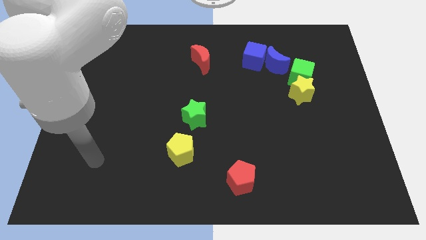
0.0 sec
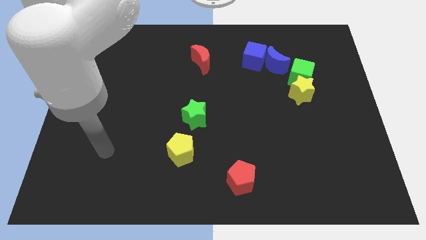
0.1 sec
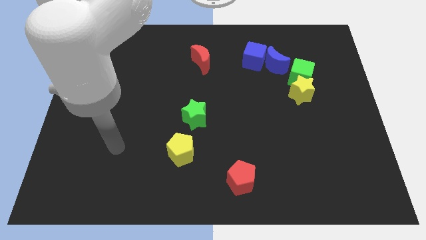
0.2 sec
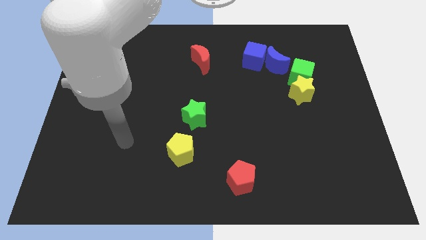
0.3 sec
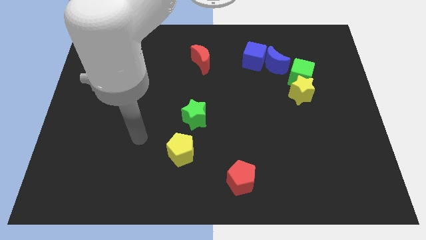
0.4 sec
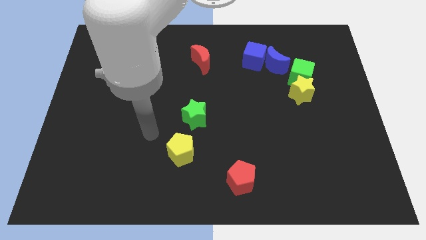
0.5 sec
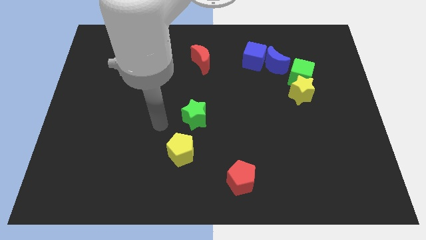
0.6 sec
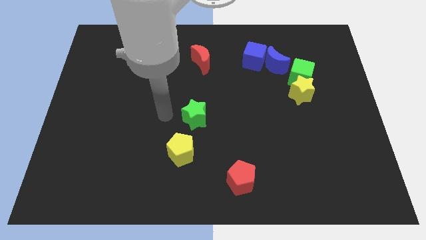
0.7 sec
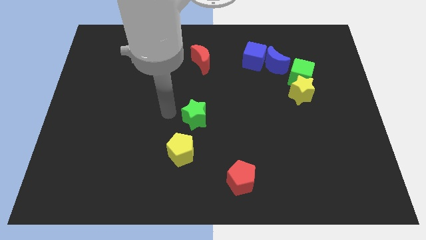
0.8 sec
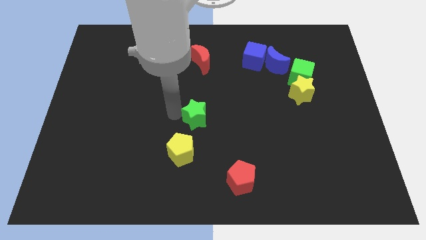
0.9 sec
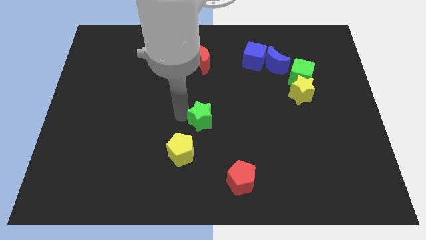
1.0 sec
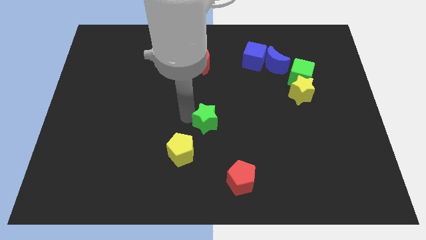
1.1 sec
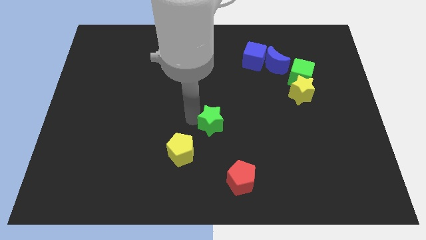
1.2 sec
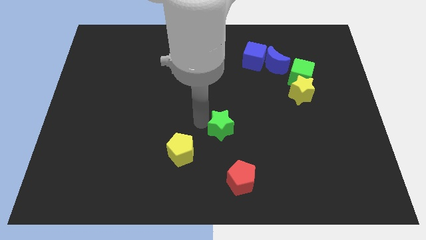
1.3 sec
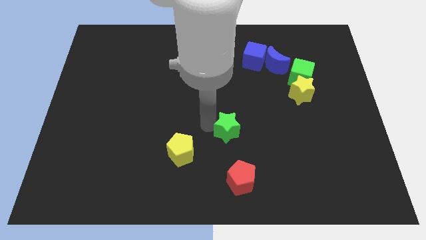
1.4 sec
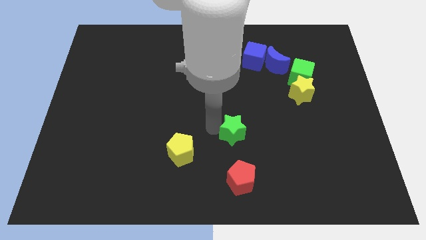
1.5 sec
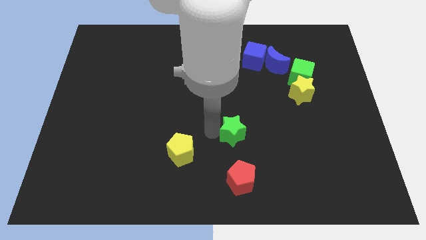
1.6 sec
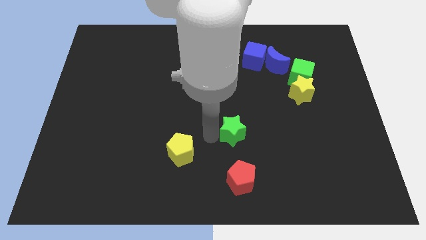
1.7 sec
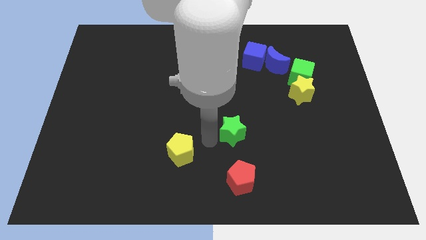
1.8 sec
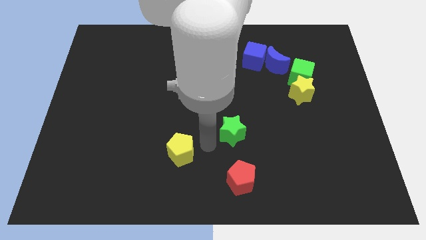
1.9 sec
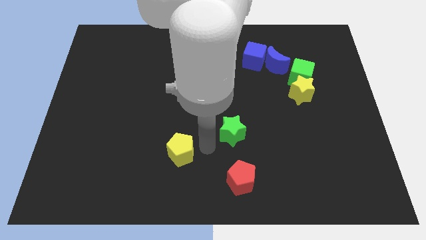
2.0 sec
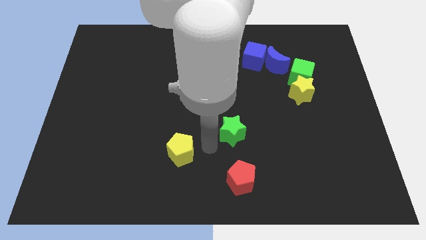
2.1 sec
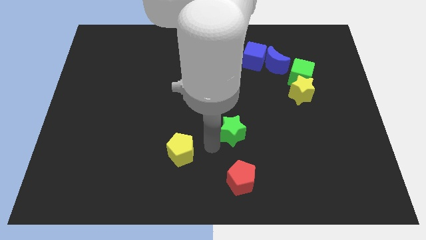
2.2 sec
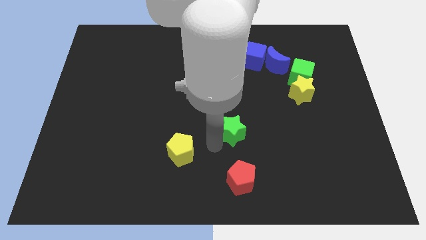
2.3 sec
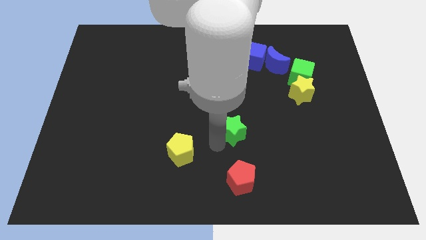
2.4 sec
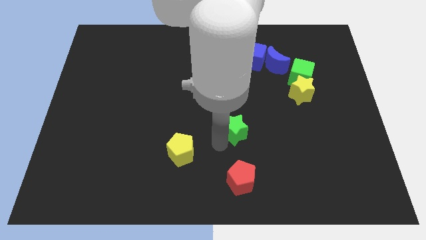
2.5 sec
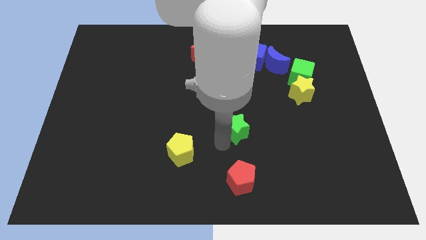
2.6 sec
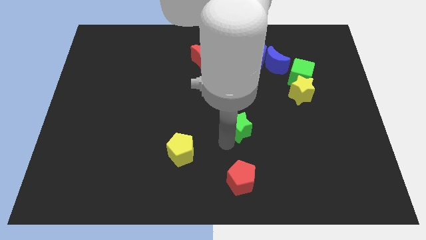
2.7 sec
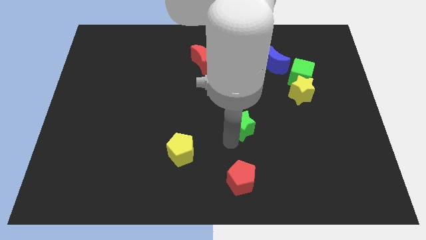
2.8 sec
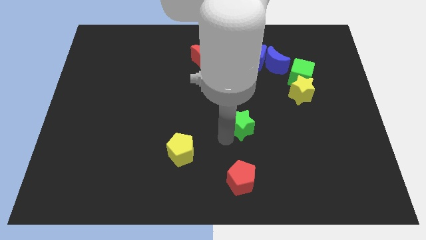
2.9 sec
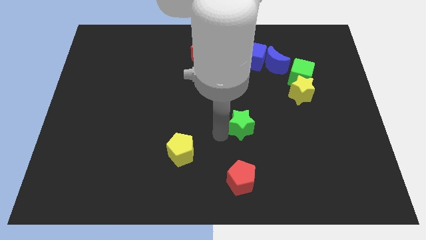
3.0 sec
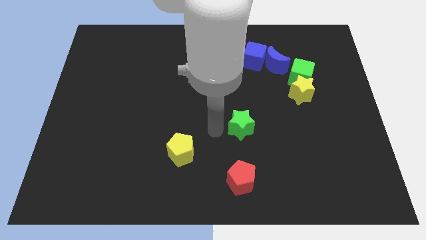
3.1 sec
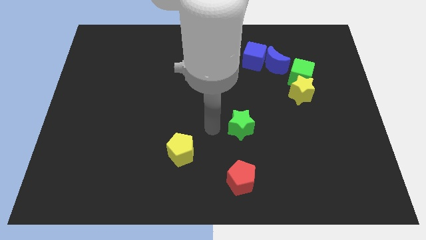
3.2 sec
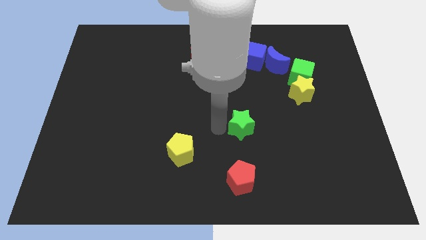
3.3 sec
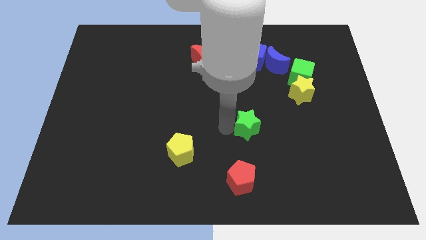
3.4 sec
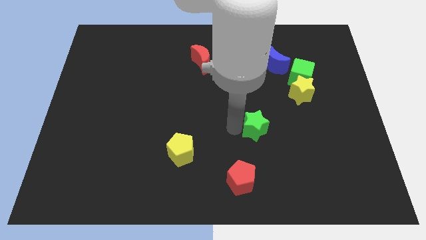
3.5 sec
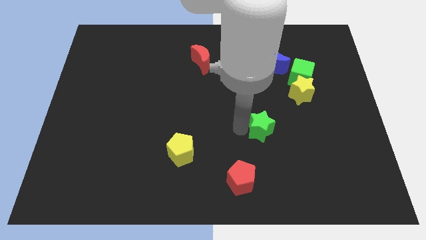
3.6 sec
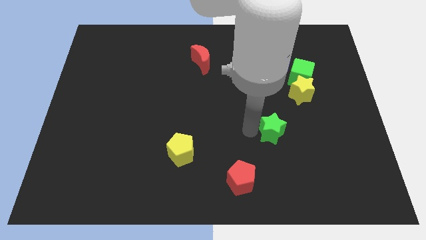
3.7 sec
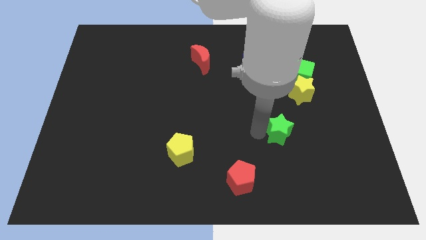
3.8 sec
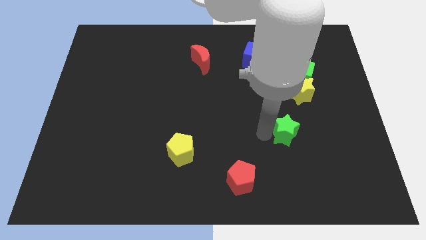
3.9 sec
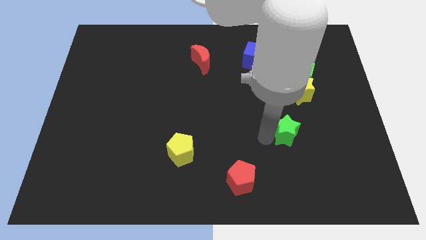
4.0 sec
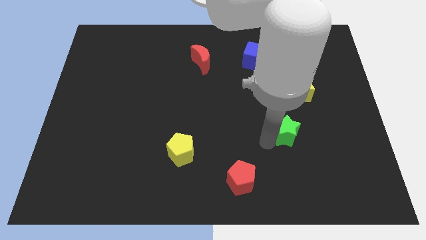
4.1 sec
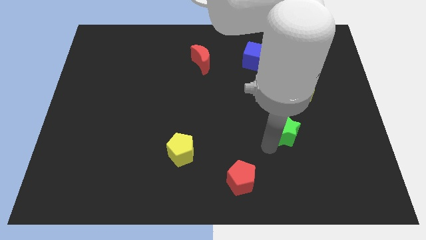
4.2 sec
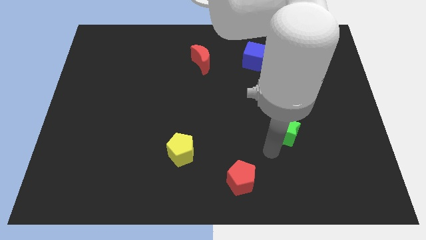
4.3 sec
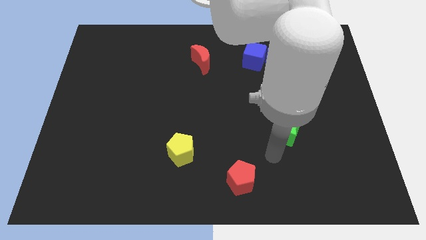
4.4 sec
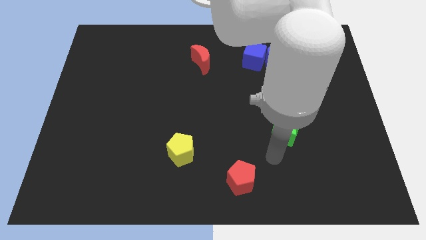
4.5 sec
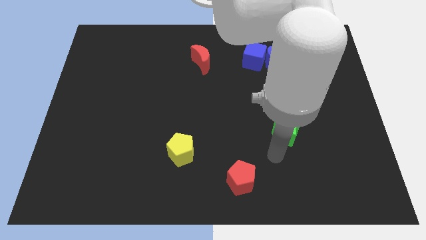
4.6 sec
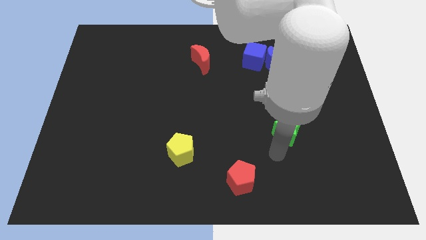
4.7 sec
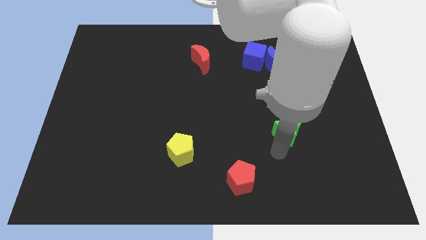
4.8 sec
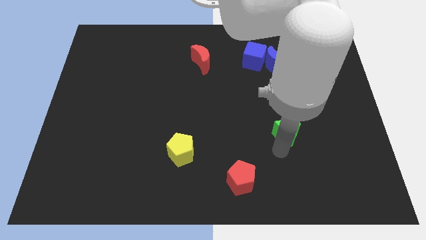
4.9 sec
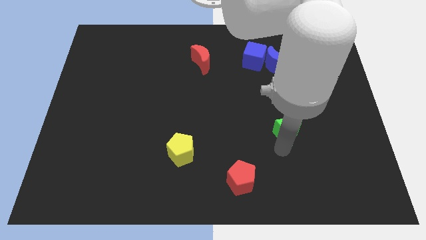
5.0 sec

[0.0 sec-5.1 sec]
slide the green star to the right

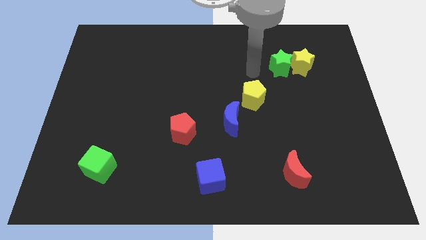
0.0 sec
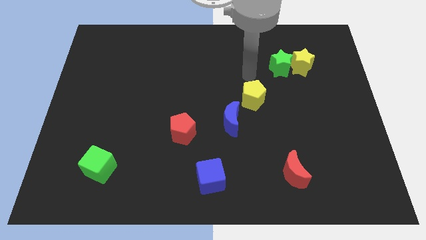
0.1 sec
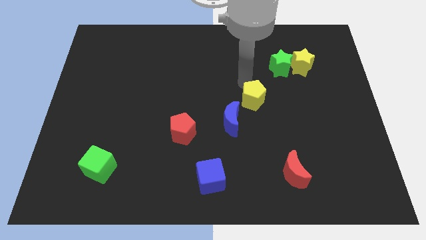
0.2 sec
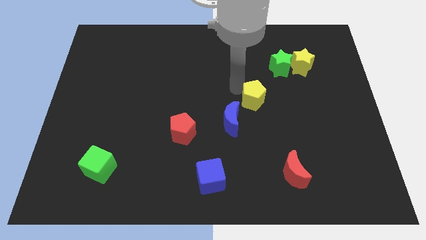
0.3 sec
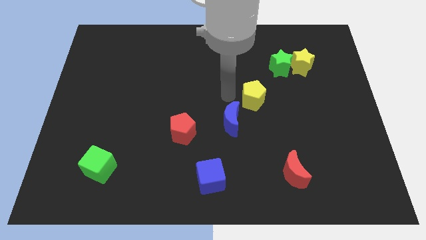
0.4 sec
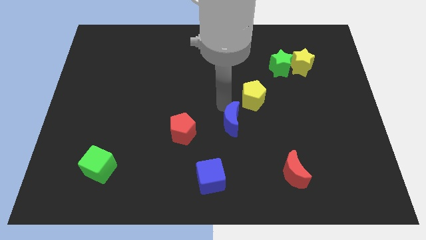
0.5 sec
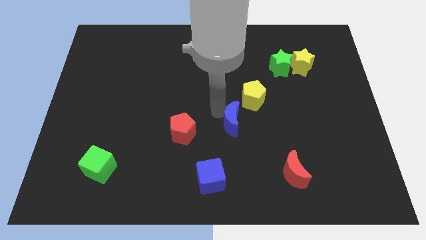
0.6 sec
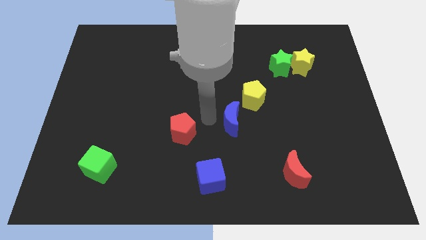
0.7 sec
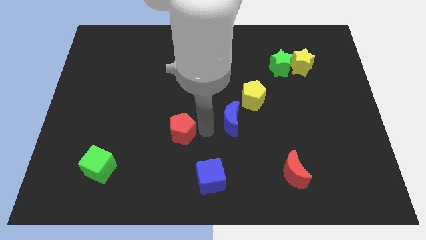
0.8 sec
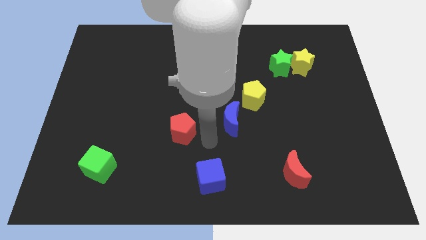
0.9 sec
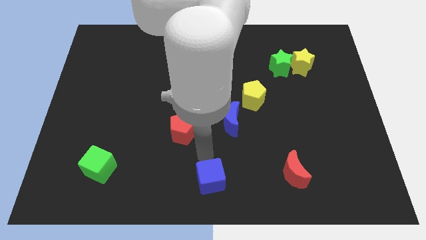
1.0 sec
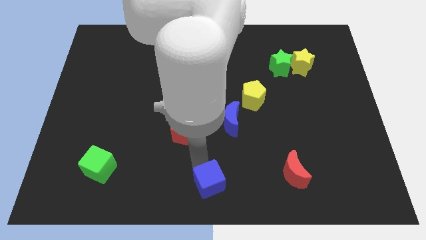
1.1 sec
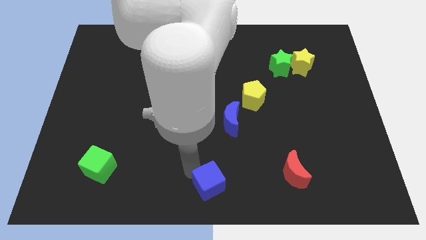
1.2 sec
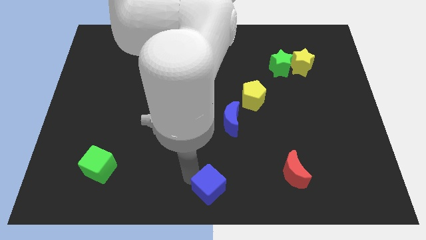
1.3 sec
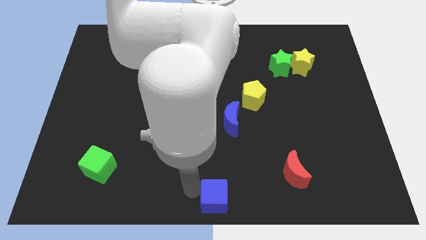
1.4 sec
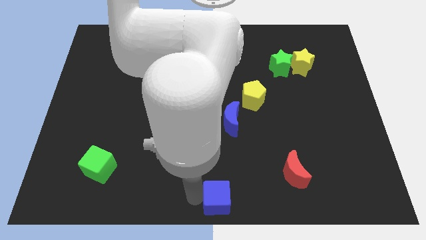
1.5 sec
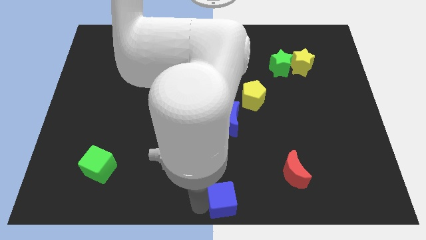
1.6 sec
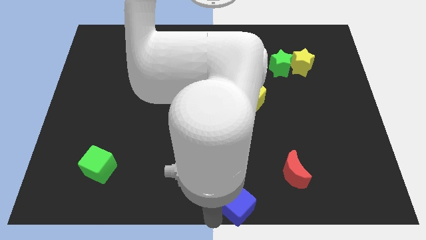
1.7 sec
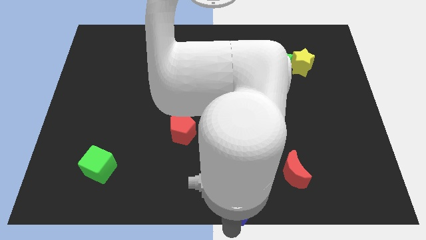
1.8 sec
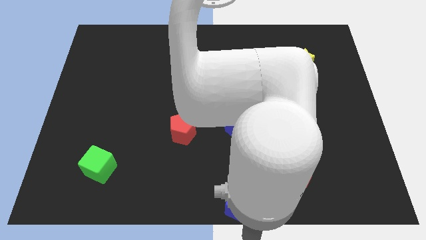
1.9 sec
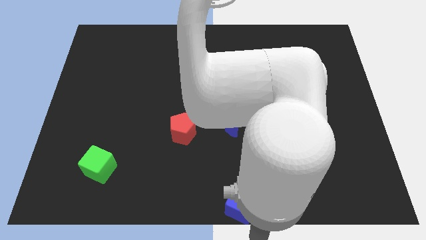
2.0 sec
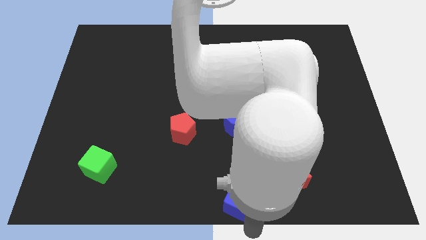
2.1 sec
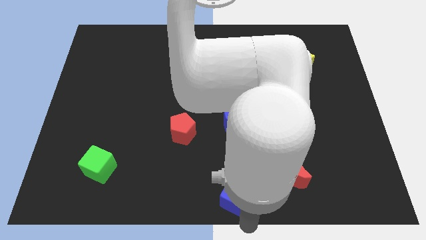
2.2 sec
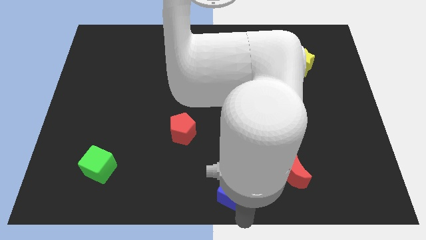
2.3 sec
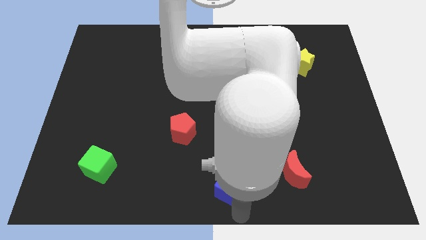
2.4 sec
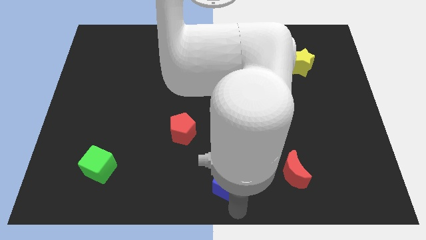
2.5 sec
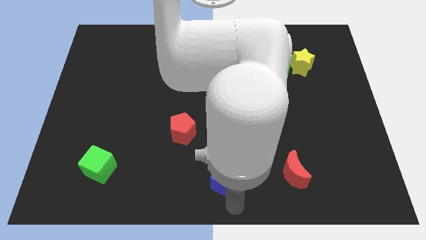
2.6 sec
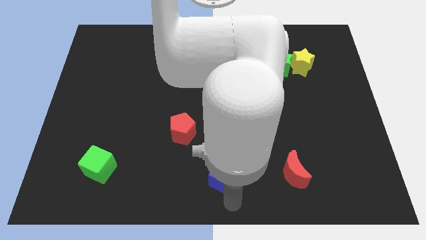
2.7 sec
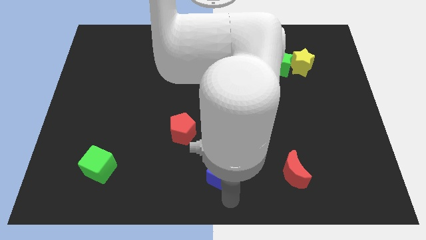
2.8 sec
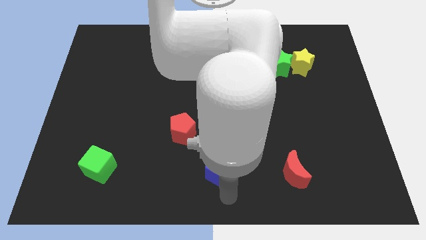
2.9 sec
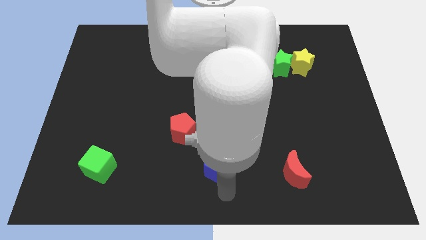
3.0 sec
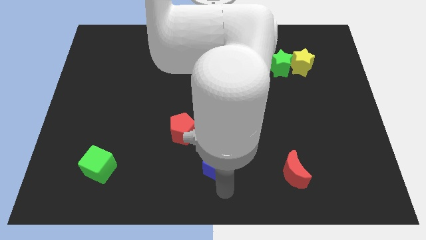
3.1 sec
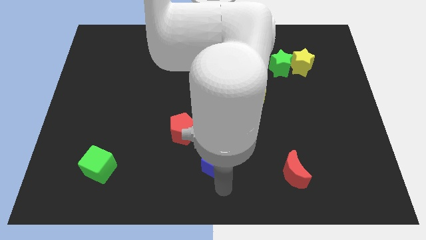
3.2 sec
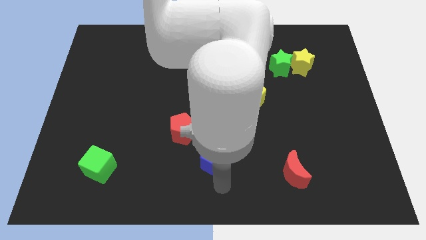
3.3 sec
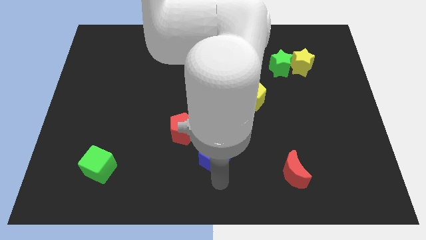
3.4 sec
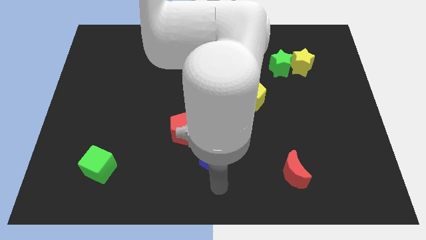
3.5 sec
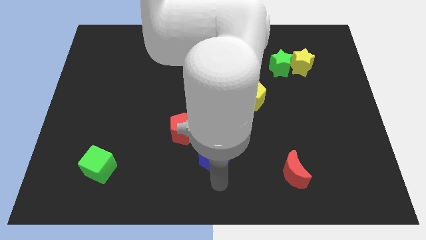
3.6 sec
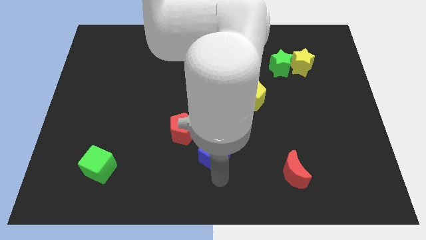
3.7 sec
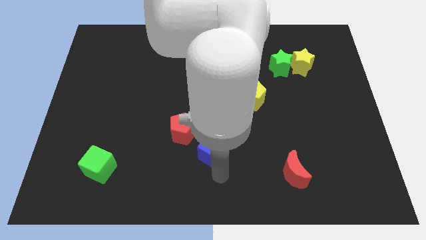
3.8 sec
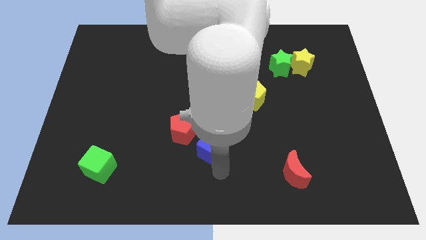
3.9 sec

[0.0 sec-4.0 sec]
slightly move the blue cube upwards
